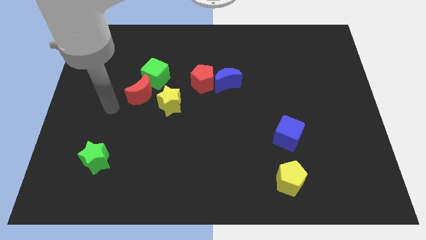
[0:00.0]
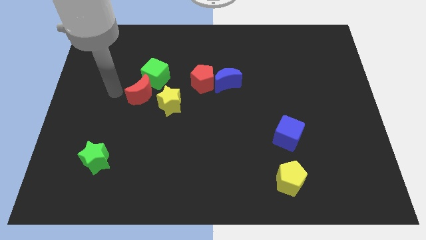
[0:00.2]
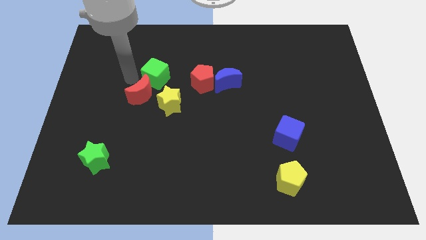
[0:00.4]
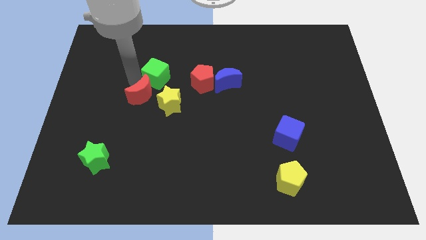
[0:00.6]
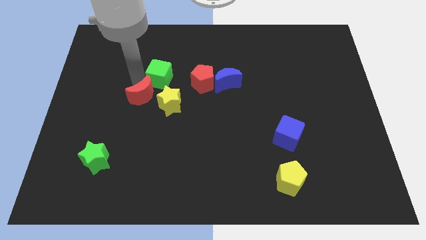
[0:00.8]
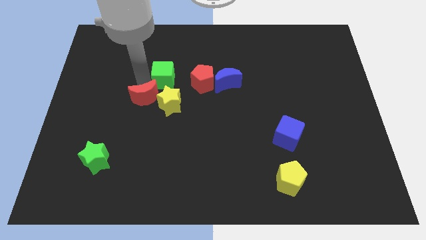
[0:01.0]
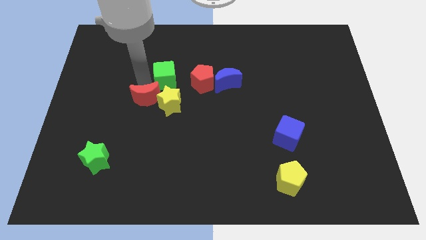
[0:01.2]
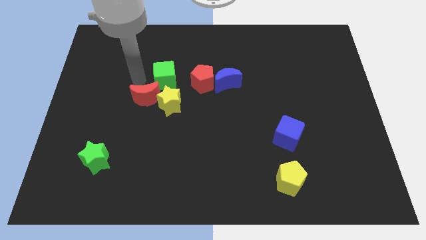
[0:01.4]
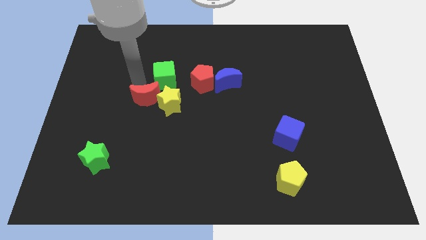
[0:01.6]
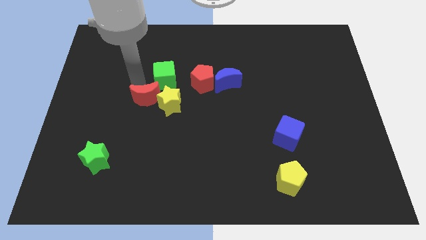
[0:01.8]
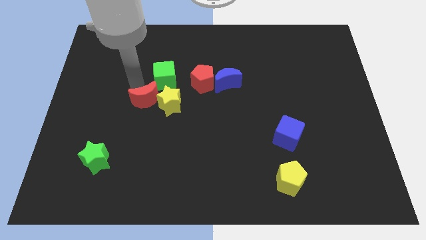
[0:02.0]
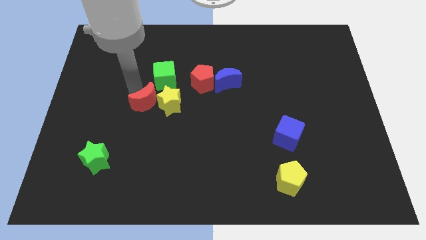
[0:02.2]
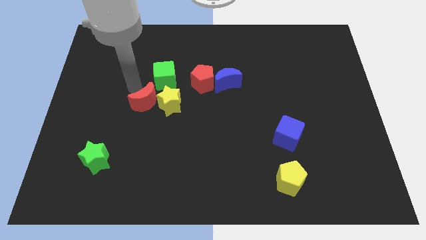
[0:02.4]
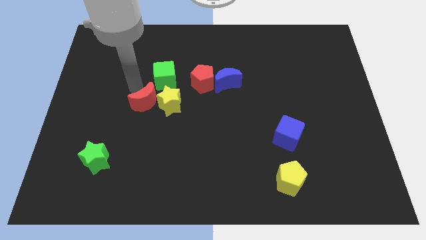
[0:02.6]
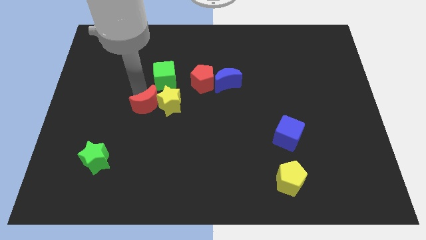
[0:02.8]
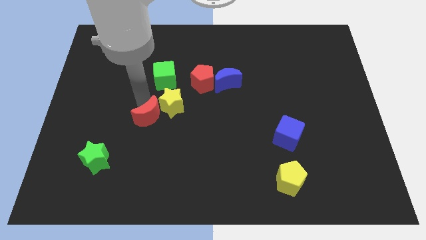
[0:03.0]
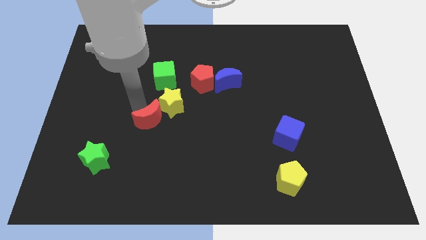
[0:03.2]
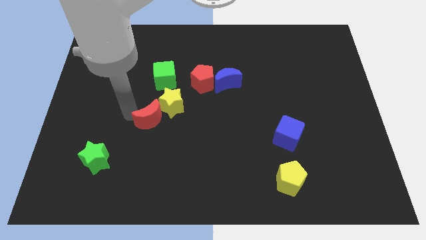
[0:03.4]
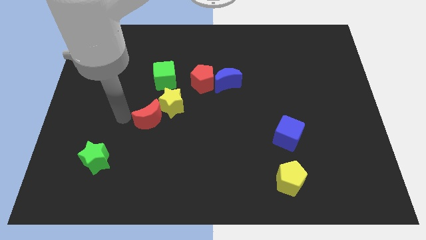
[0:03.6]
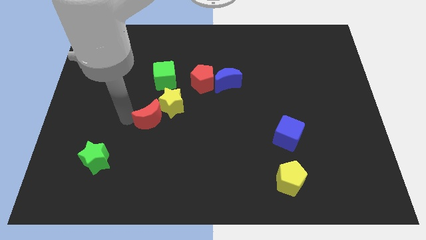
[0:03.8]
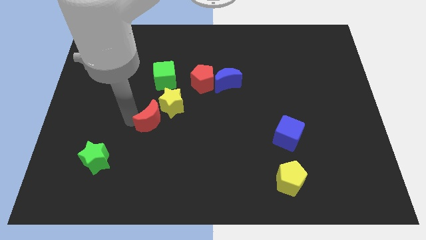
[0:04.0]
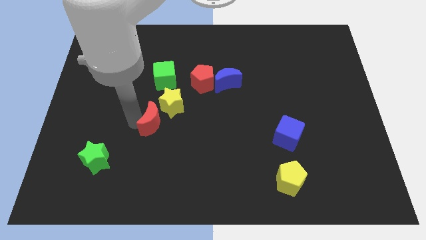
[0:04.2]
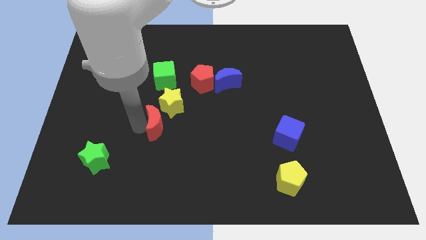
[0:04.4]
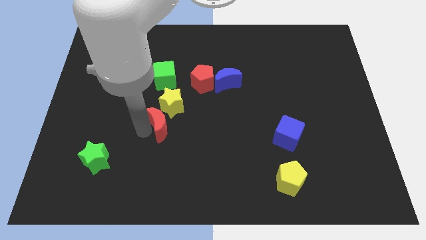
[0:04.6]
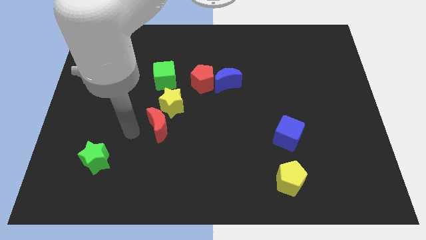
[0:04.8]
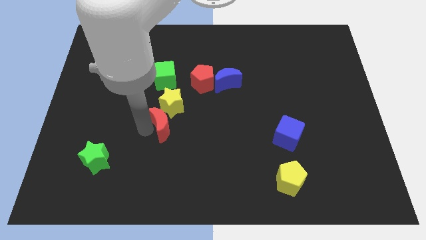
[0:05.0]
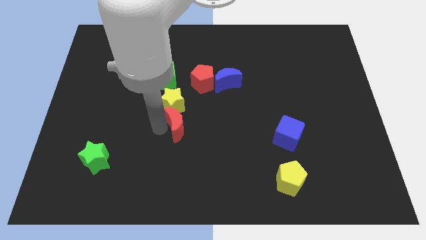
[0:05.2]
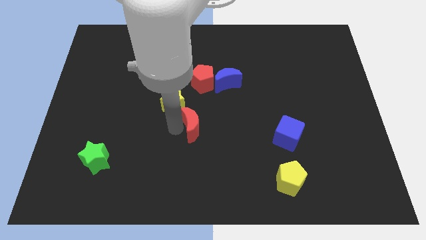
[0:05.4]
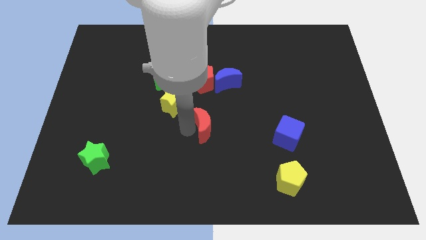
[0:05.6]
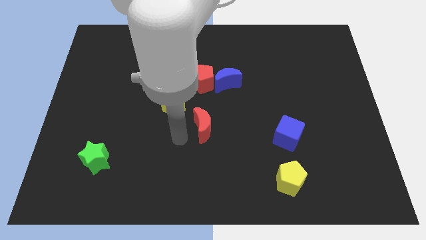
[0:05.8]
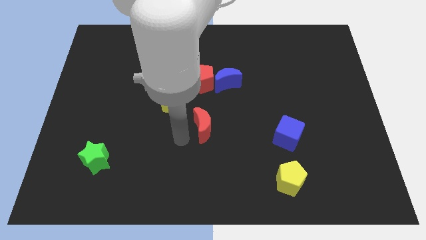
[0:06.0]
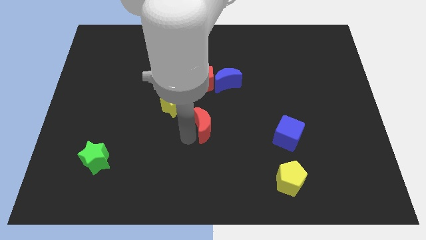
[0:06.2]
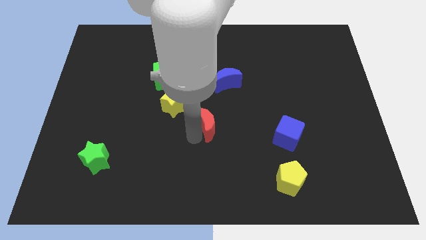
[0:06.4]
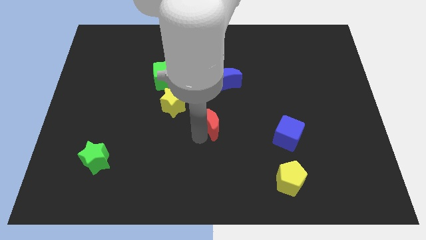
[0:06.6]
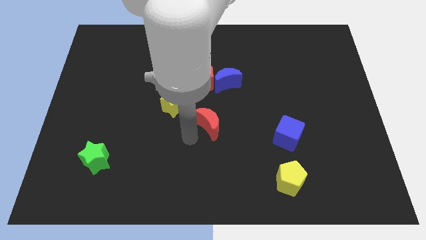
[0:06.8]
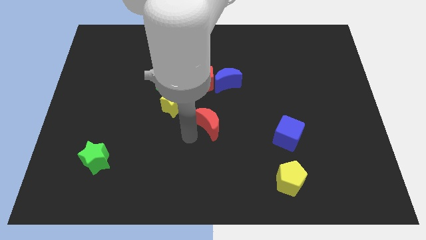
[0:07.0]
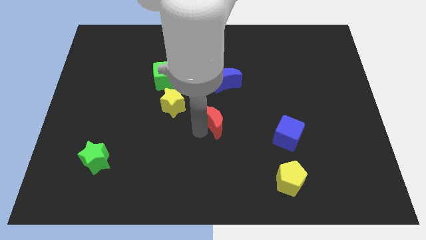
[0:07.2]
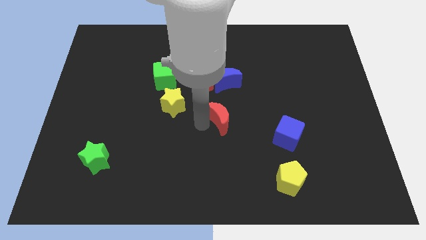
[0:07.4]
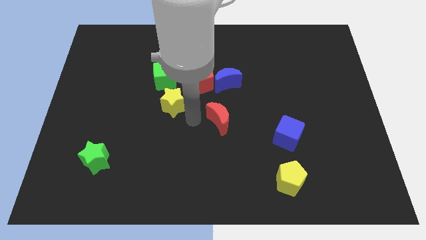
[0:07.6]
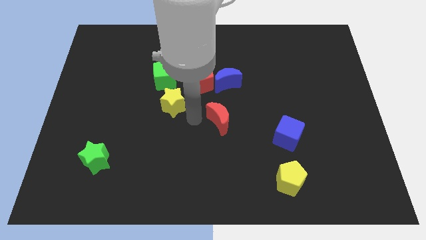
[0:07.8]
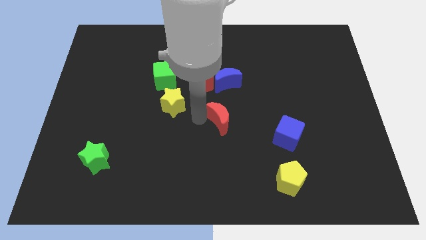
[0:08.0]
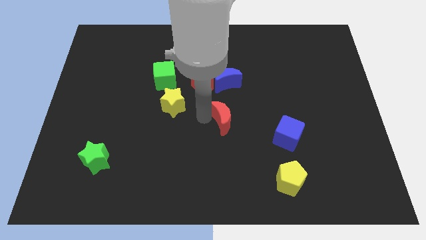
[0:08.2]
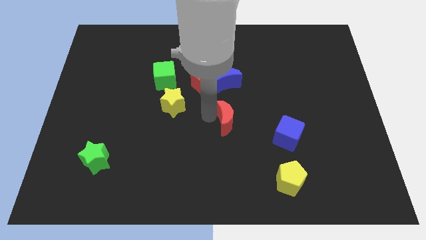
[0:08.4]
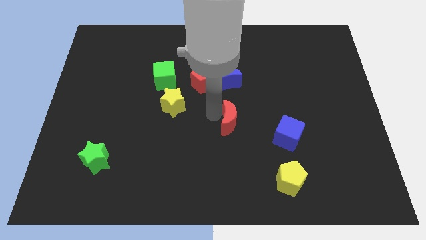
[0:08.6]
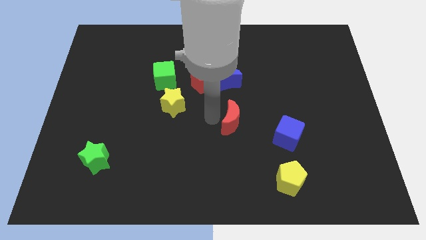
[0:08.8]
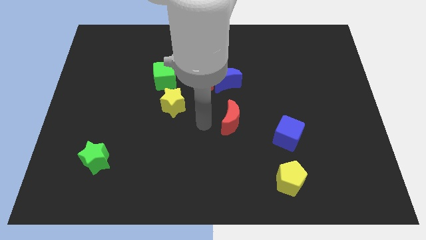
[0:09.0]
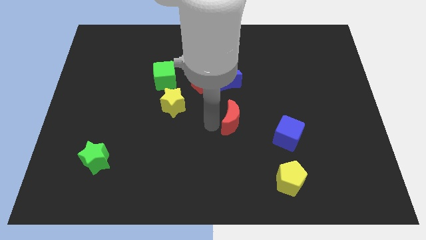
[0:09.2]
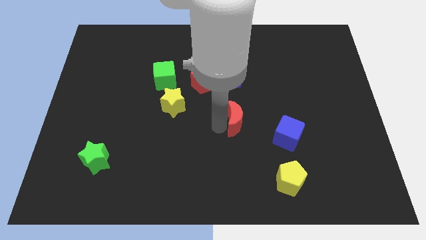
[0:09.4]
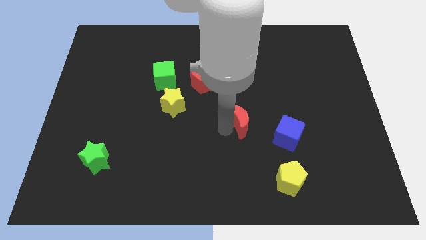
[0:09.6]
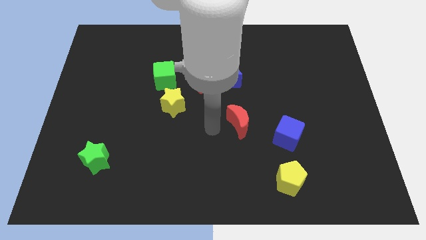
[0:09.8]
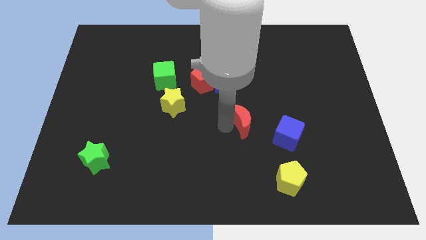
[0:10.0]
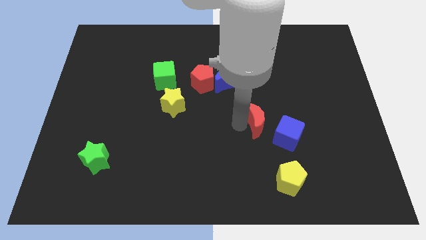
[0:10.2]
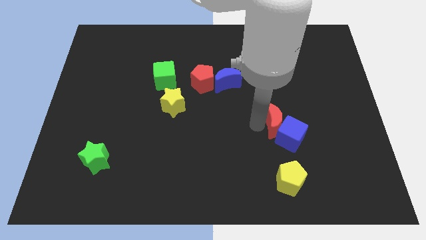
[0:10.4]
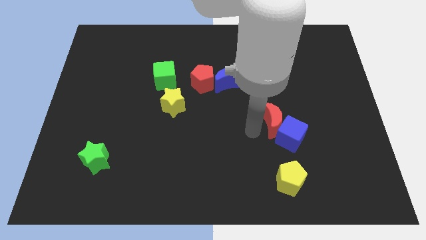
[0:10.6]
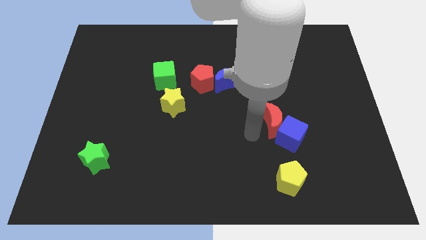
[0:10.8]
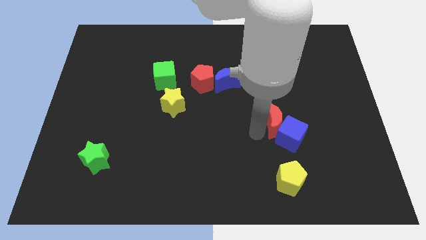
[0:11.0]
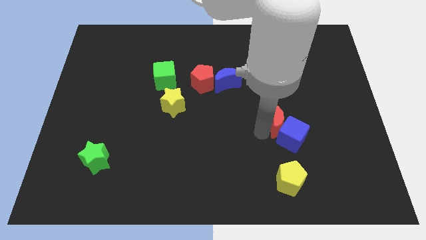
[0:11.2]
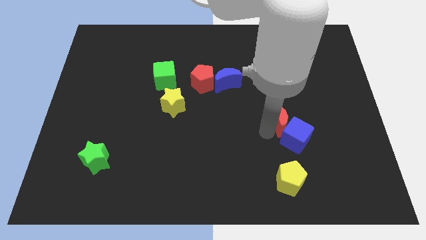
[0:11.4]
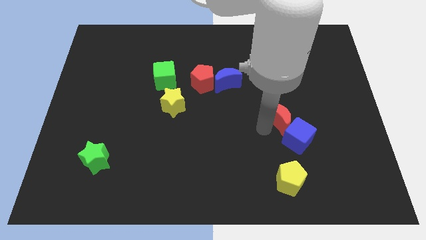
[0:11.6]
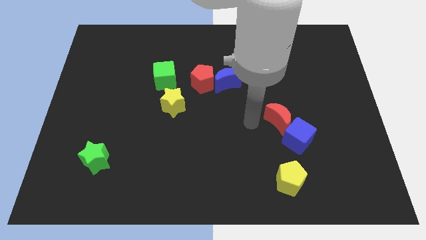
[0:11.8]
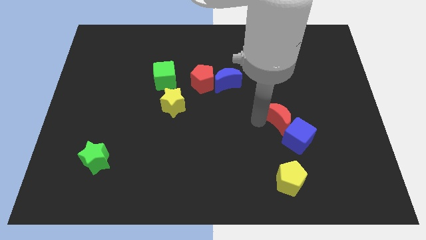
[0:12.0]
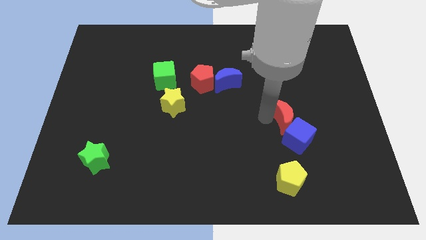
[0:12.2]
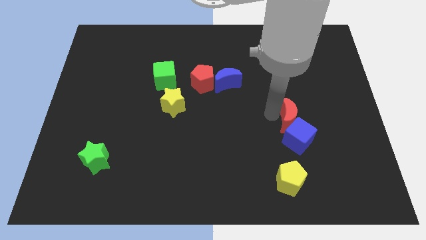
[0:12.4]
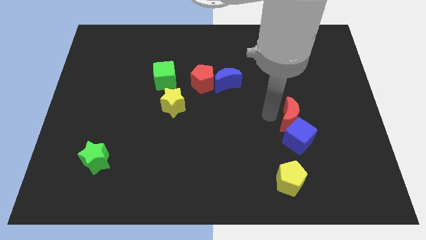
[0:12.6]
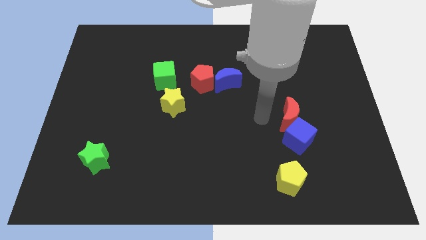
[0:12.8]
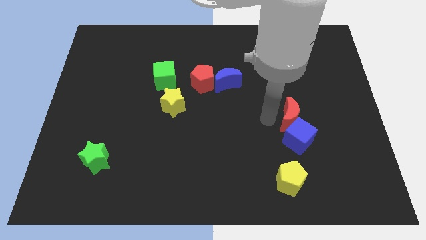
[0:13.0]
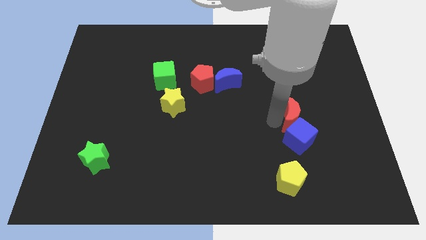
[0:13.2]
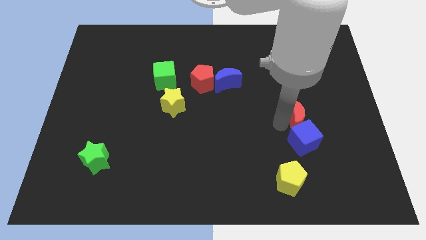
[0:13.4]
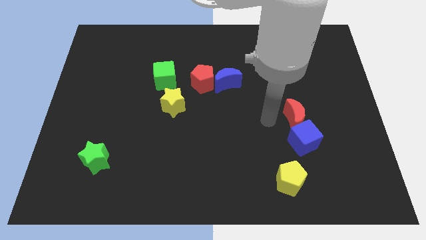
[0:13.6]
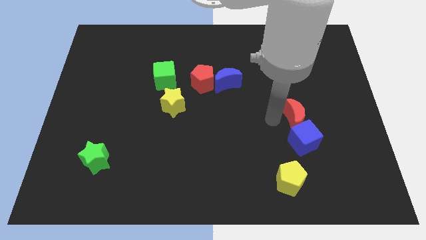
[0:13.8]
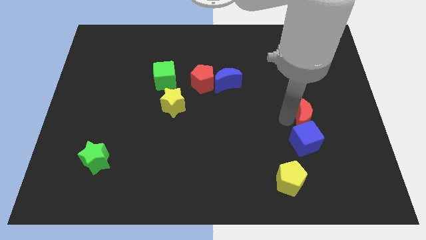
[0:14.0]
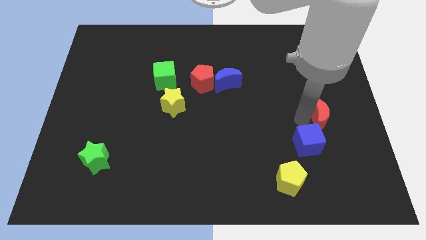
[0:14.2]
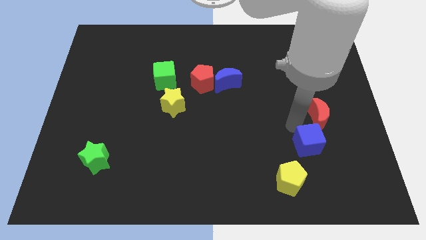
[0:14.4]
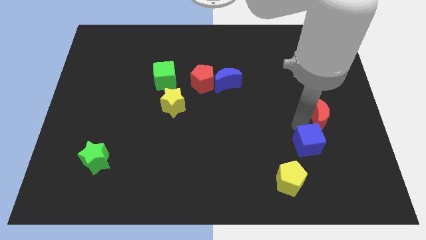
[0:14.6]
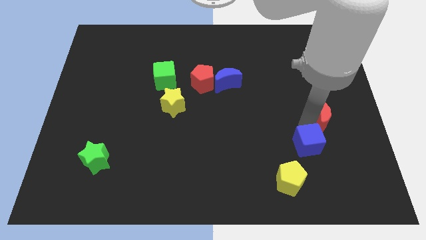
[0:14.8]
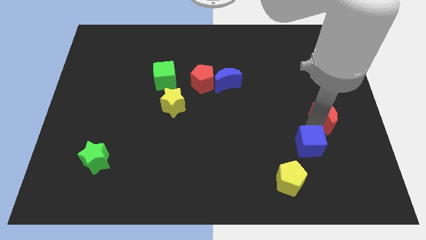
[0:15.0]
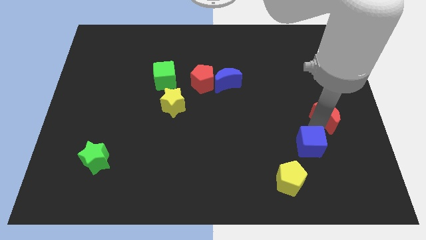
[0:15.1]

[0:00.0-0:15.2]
slide the red moon to the center right

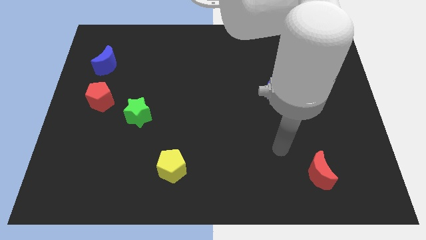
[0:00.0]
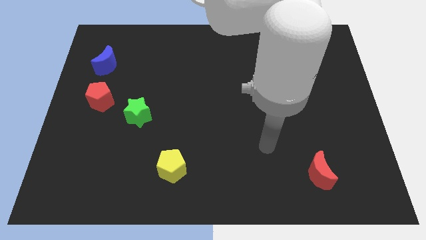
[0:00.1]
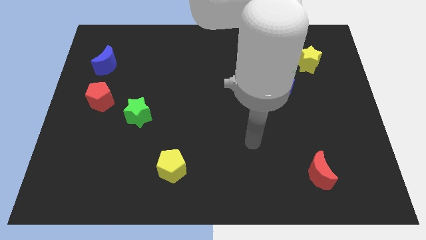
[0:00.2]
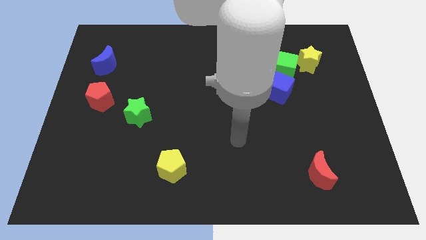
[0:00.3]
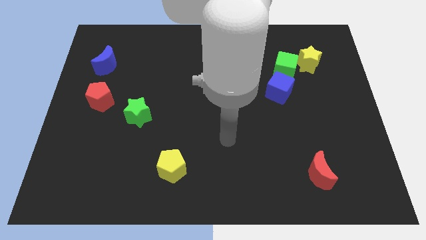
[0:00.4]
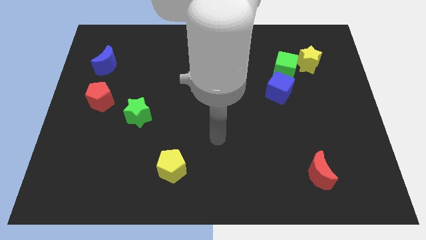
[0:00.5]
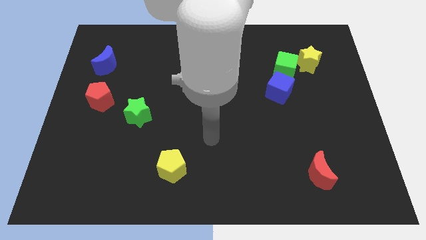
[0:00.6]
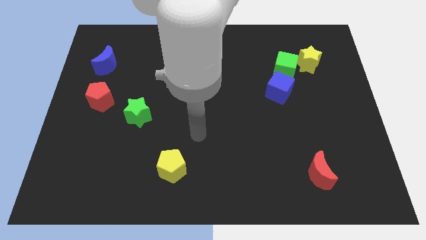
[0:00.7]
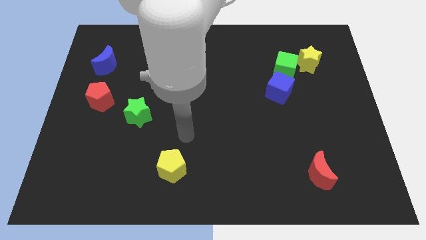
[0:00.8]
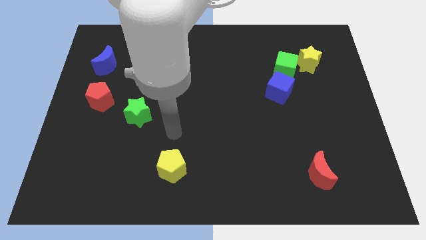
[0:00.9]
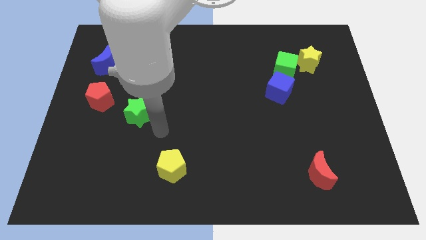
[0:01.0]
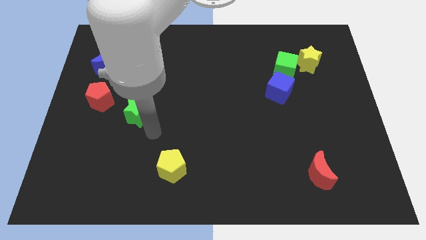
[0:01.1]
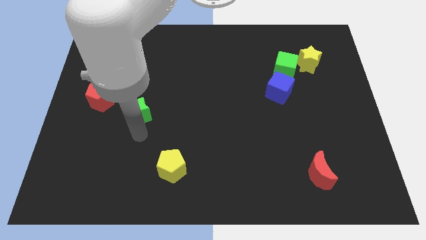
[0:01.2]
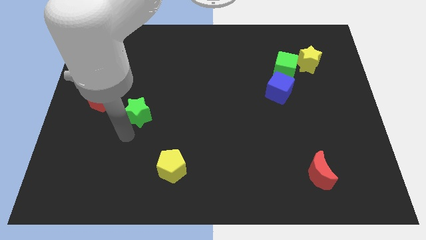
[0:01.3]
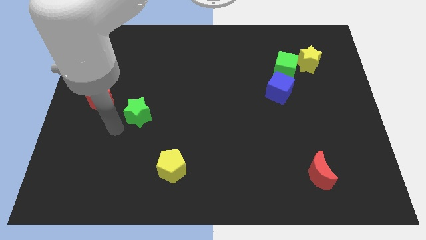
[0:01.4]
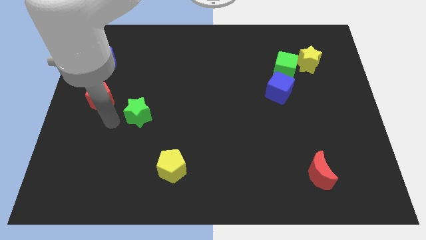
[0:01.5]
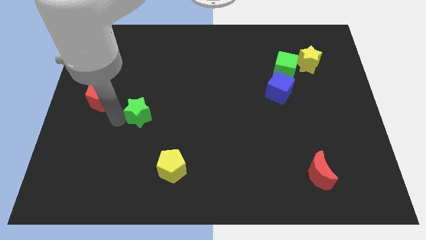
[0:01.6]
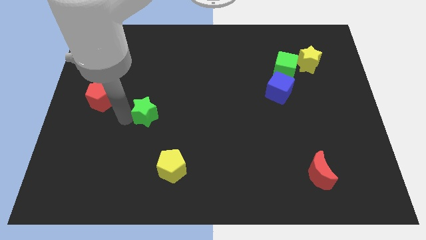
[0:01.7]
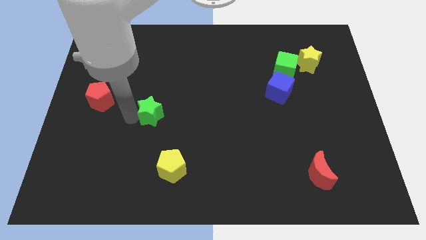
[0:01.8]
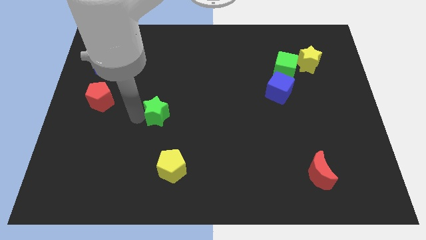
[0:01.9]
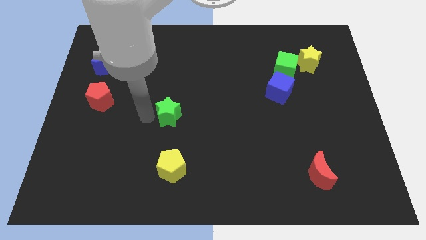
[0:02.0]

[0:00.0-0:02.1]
put the green star to the center of the board
